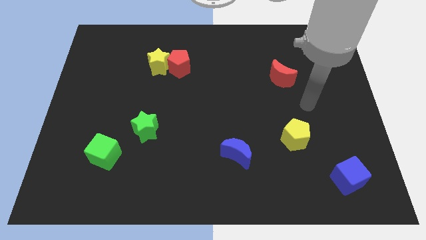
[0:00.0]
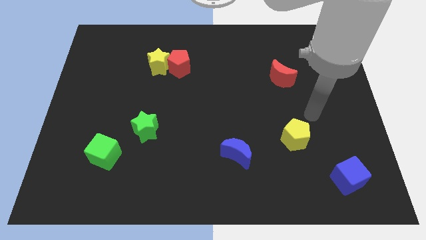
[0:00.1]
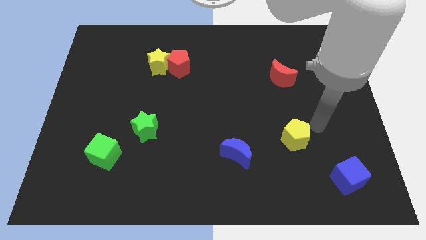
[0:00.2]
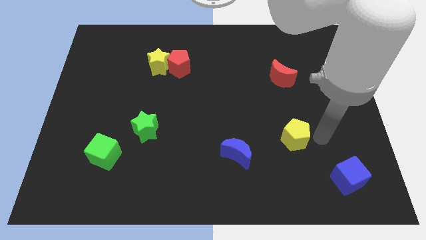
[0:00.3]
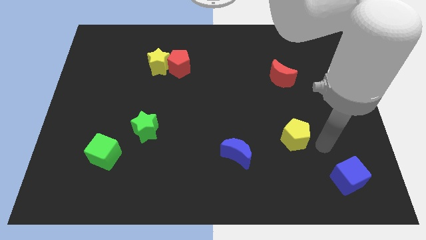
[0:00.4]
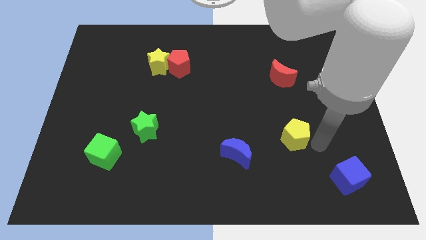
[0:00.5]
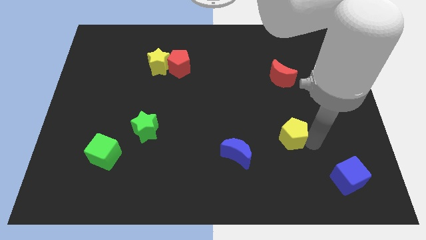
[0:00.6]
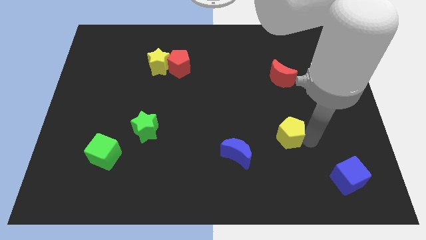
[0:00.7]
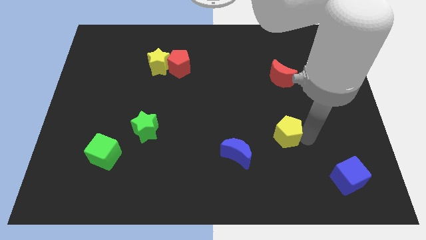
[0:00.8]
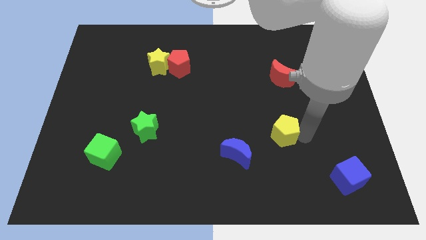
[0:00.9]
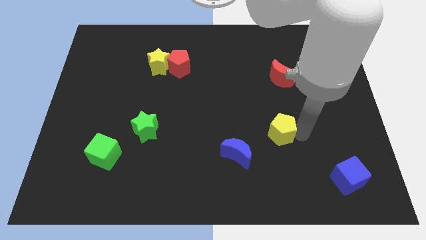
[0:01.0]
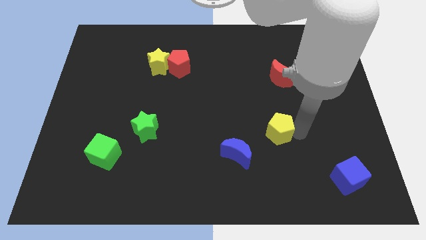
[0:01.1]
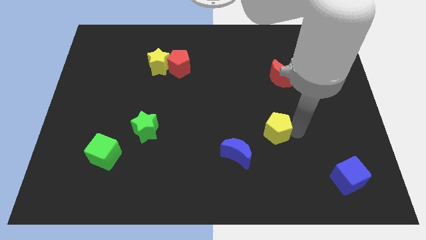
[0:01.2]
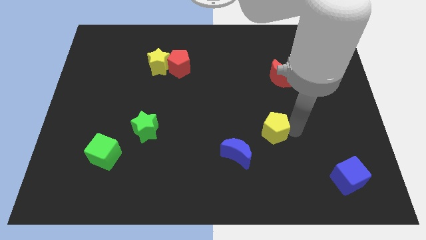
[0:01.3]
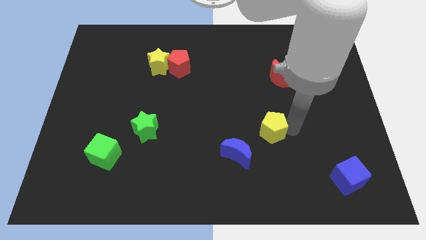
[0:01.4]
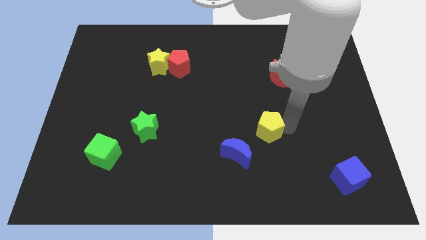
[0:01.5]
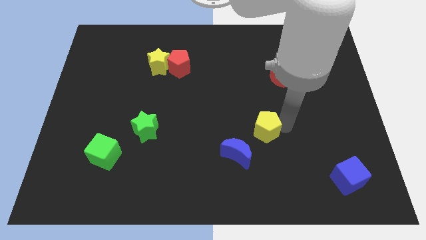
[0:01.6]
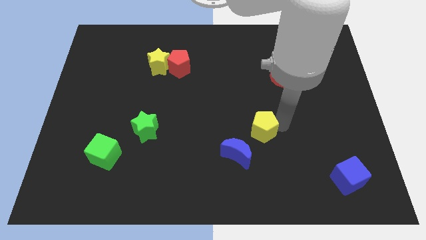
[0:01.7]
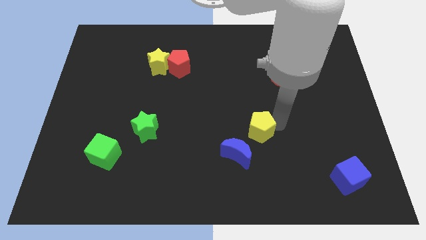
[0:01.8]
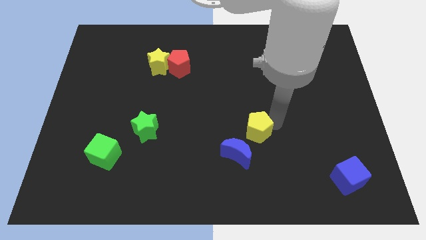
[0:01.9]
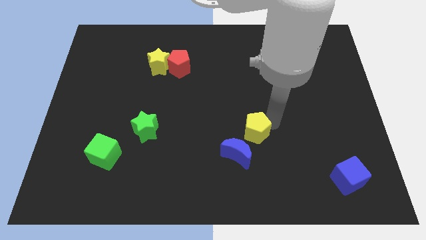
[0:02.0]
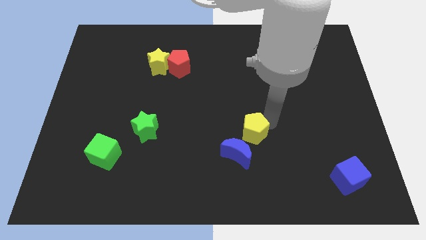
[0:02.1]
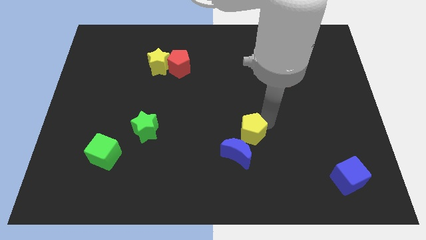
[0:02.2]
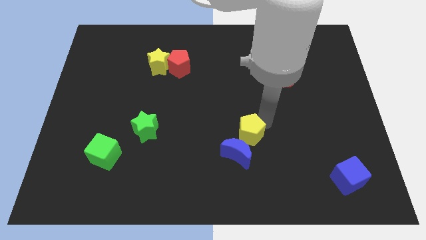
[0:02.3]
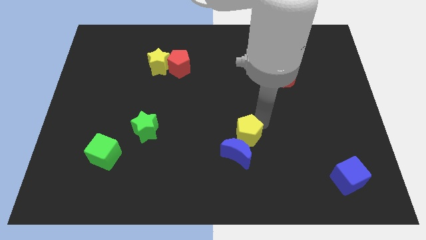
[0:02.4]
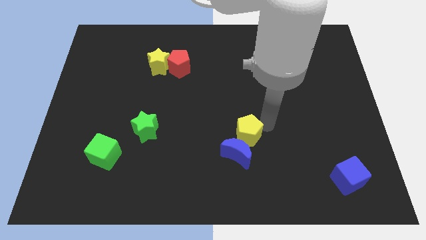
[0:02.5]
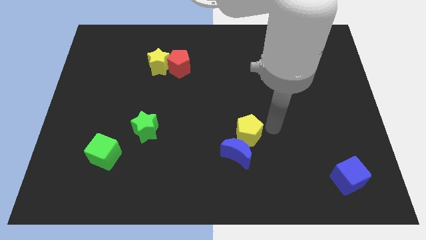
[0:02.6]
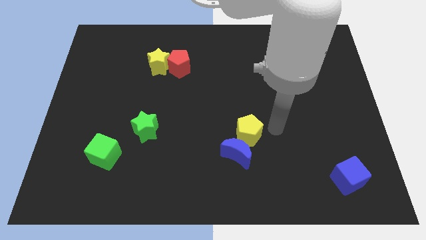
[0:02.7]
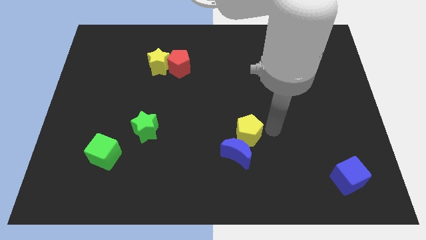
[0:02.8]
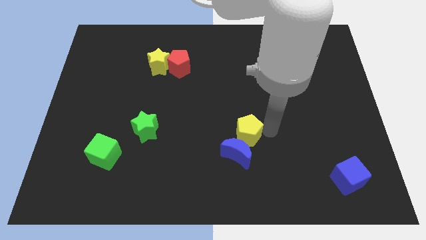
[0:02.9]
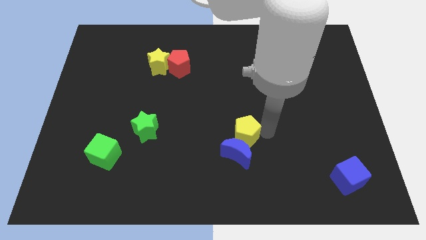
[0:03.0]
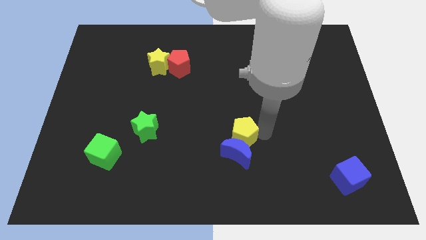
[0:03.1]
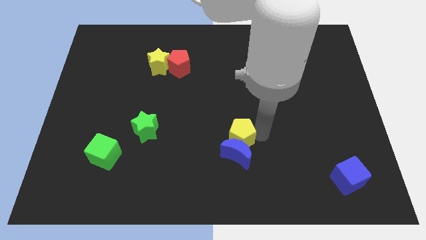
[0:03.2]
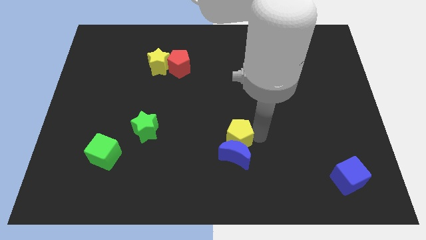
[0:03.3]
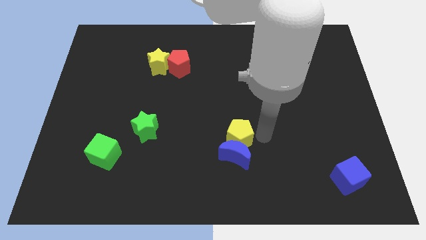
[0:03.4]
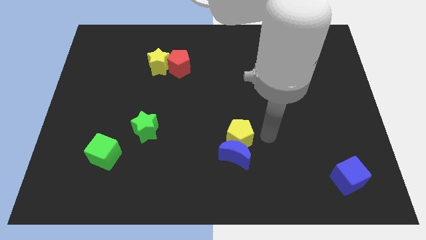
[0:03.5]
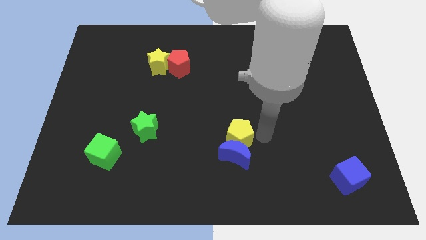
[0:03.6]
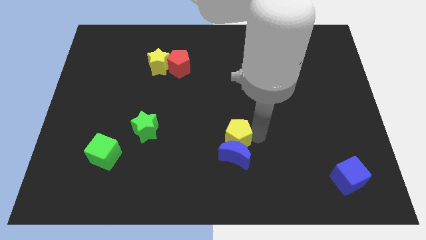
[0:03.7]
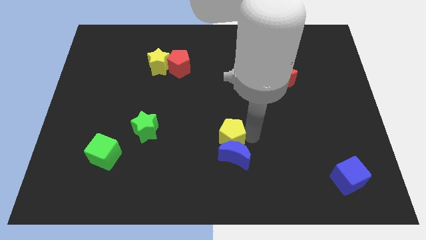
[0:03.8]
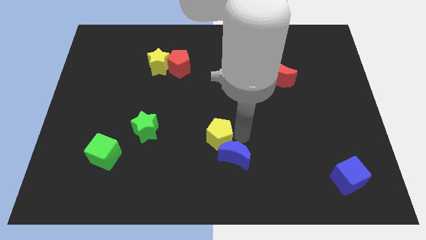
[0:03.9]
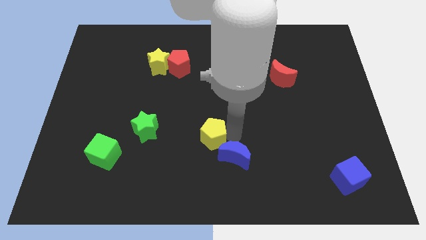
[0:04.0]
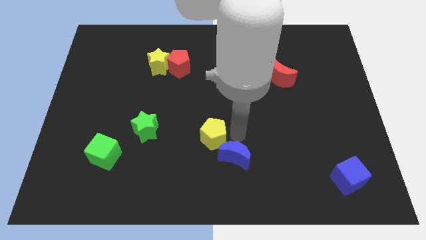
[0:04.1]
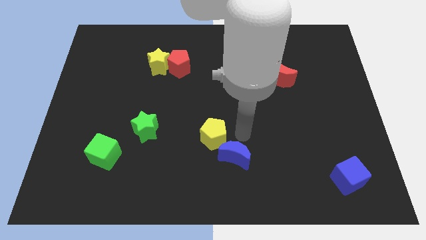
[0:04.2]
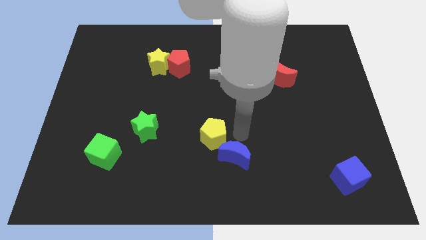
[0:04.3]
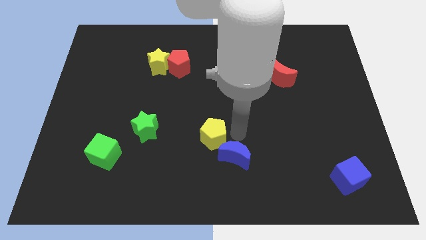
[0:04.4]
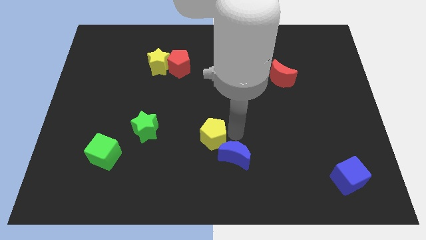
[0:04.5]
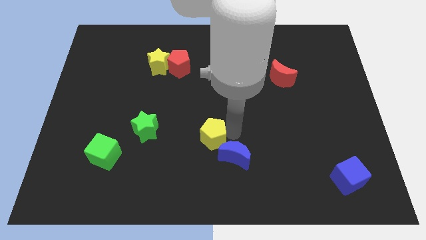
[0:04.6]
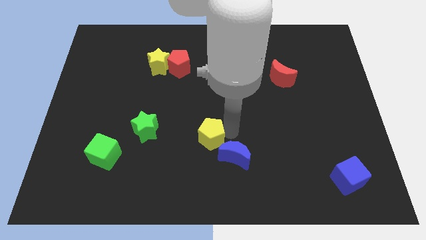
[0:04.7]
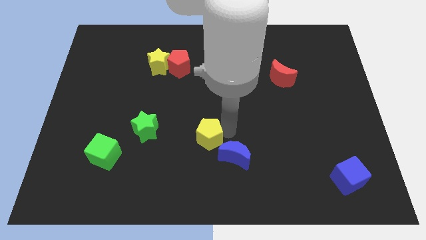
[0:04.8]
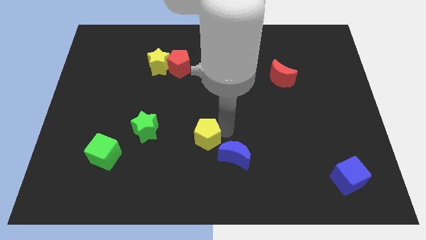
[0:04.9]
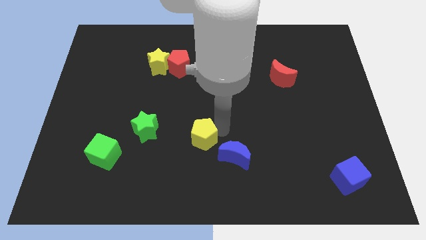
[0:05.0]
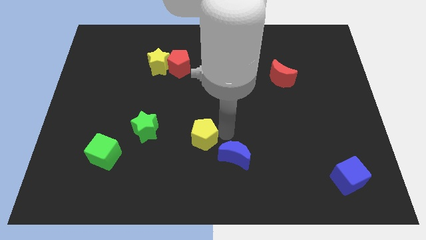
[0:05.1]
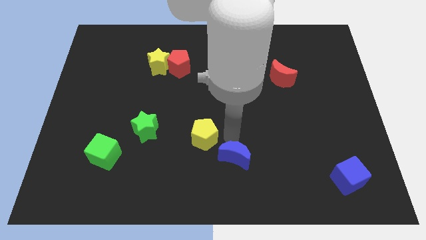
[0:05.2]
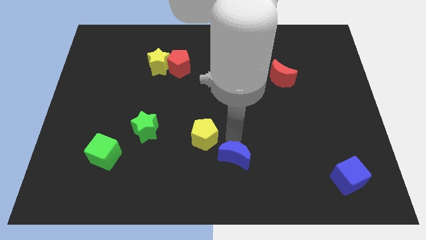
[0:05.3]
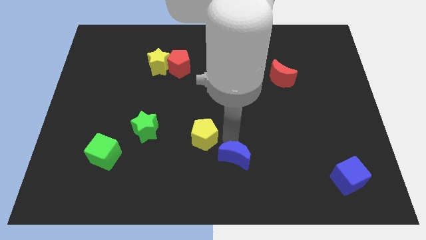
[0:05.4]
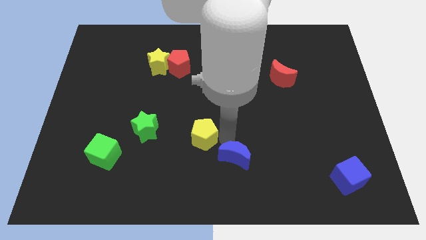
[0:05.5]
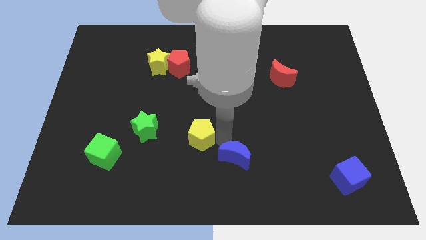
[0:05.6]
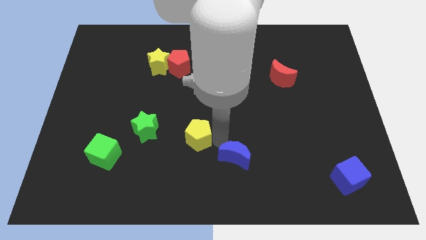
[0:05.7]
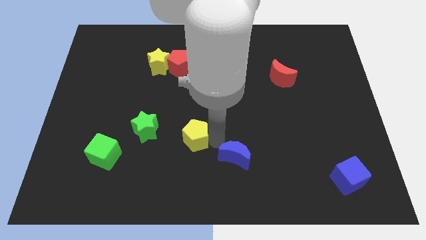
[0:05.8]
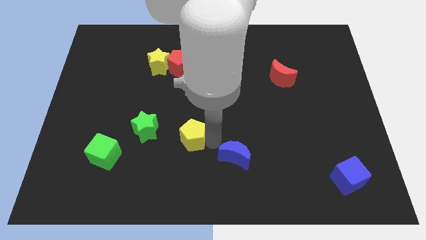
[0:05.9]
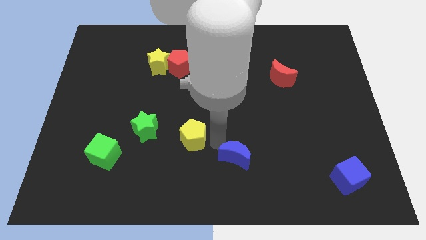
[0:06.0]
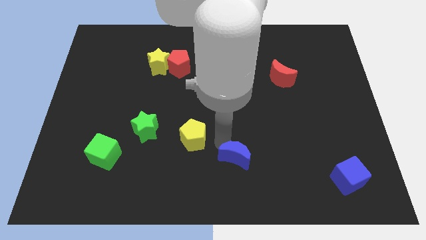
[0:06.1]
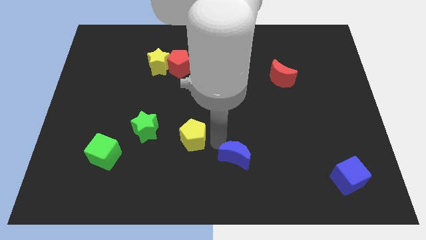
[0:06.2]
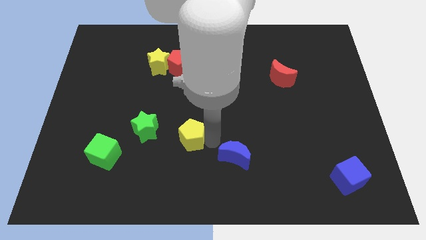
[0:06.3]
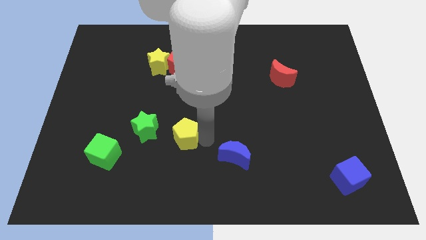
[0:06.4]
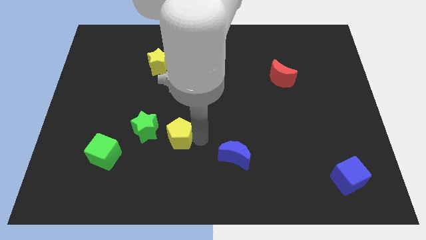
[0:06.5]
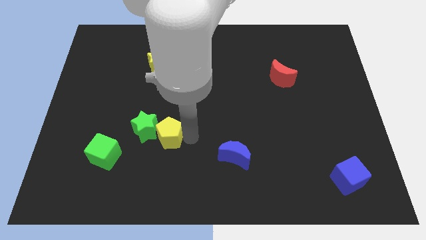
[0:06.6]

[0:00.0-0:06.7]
push the yellow pentagon towards the green star
